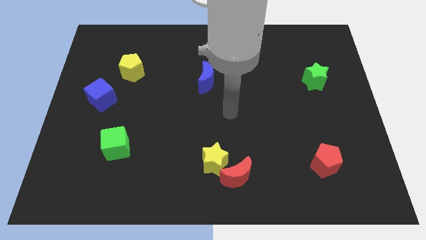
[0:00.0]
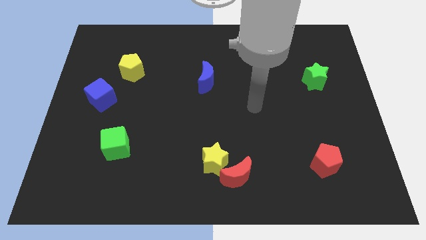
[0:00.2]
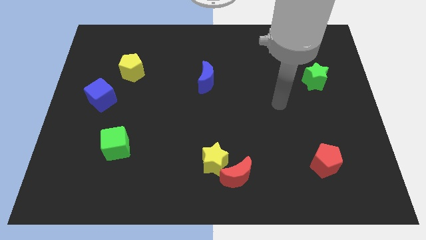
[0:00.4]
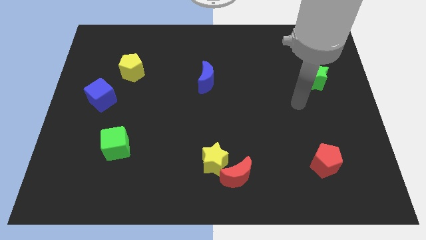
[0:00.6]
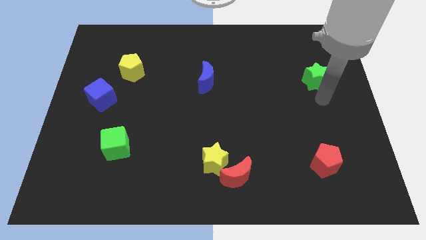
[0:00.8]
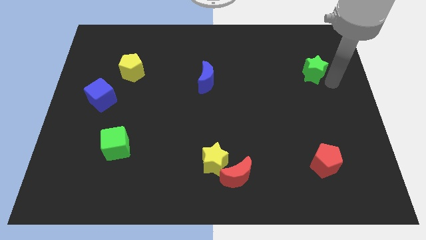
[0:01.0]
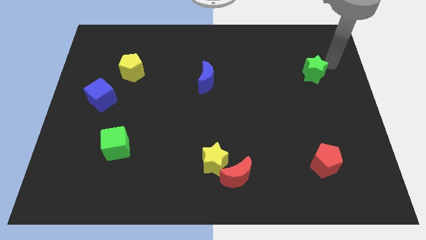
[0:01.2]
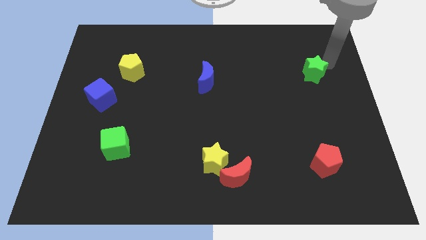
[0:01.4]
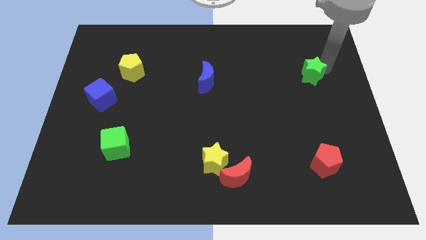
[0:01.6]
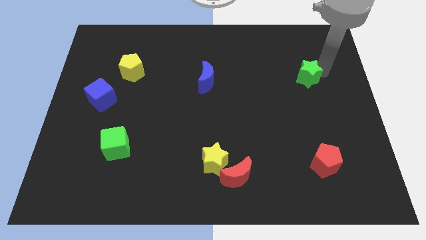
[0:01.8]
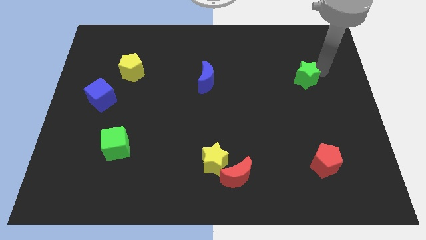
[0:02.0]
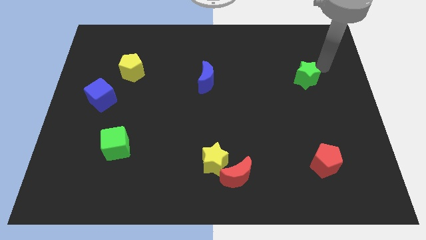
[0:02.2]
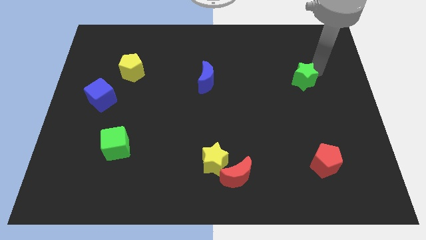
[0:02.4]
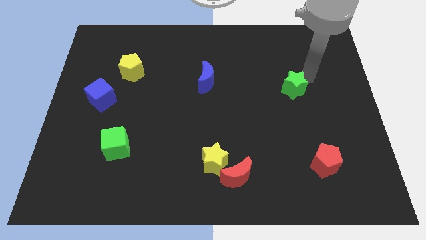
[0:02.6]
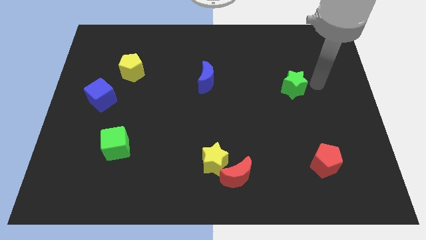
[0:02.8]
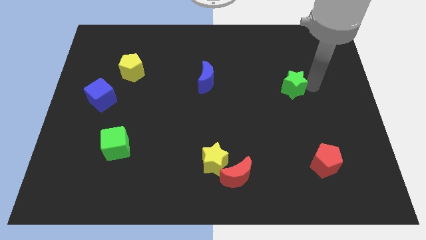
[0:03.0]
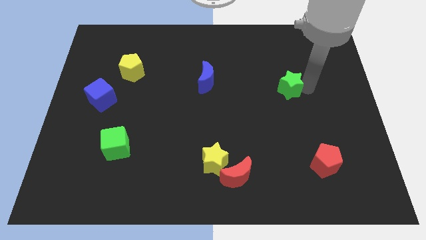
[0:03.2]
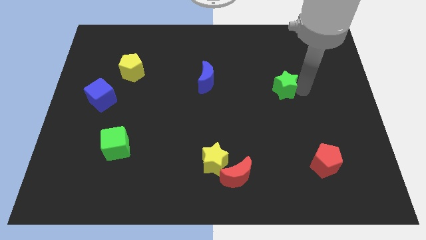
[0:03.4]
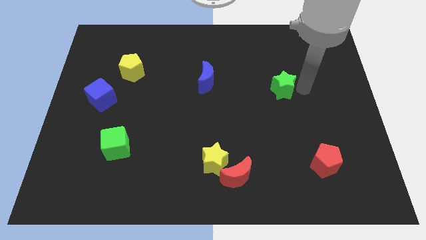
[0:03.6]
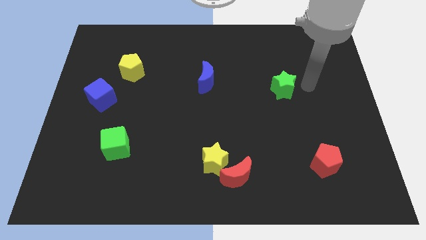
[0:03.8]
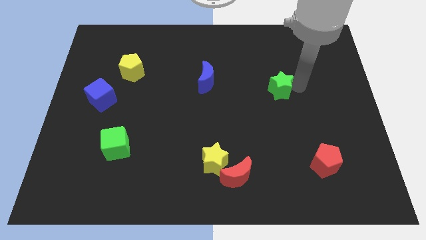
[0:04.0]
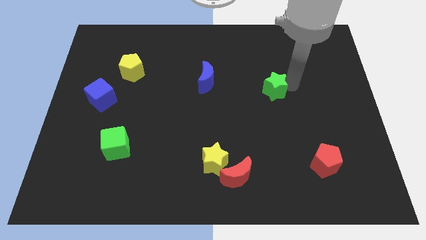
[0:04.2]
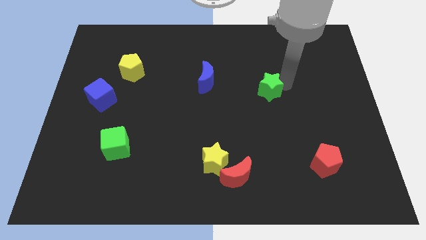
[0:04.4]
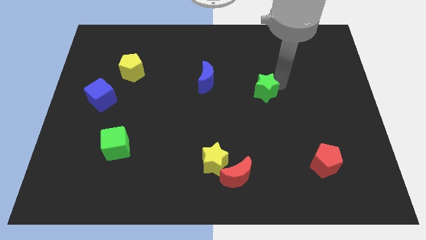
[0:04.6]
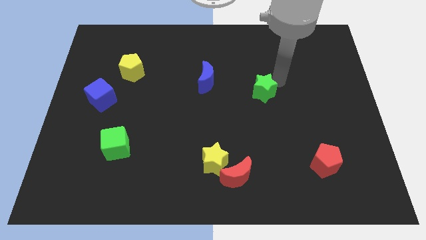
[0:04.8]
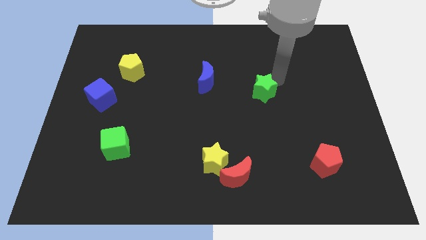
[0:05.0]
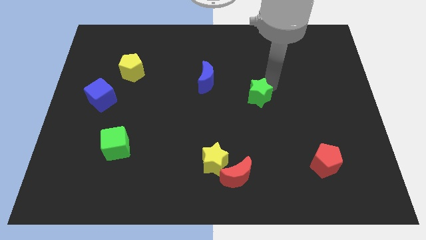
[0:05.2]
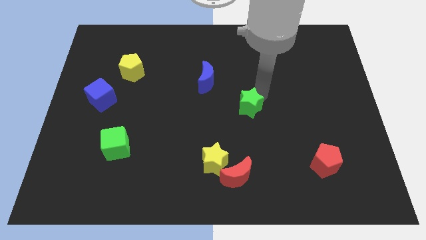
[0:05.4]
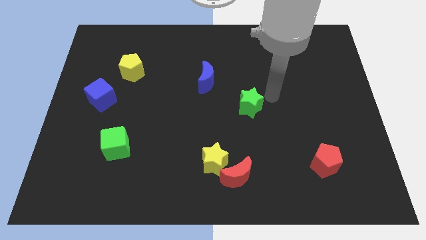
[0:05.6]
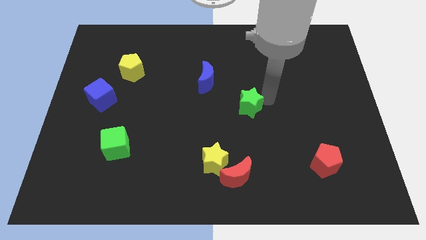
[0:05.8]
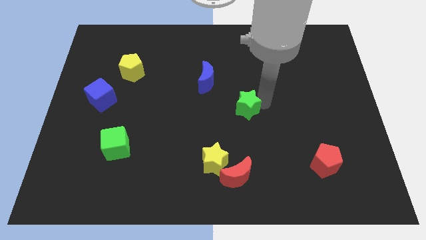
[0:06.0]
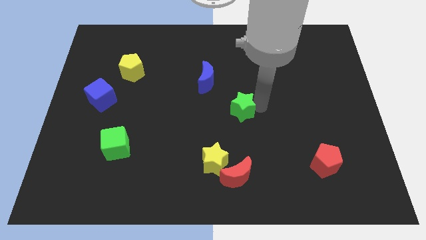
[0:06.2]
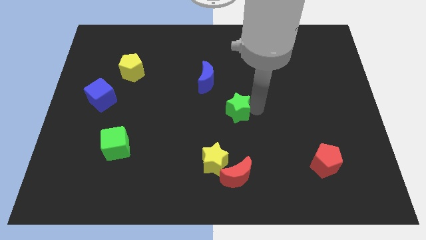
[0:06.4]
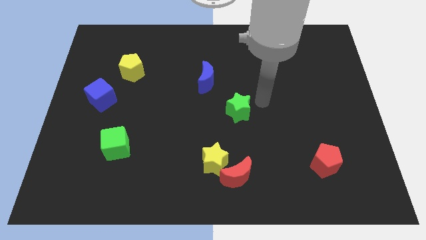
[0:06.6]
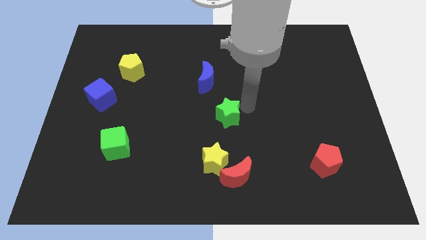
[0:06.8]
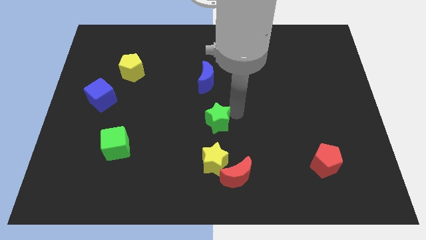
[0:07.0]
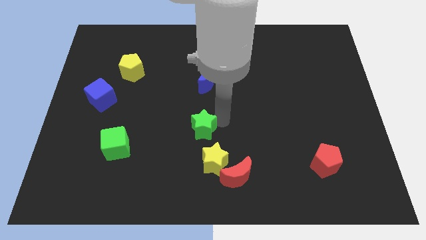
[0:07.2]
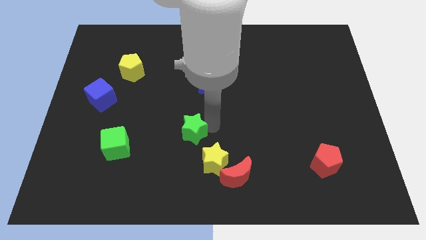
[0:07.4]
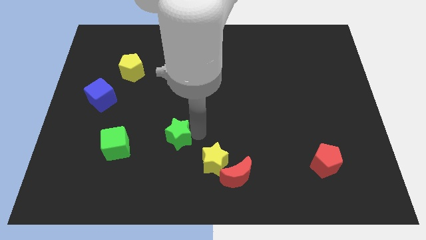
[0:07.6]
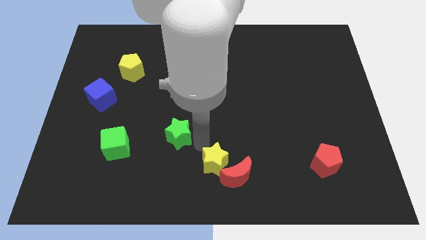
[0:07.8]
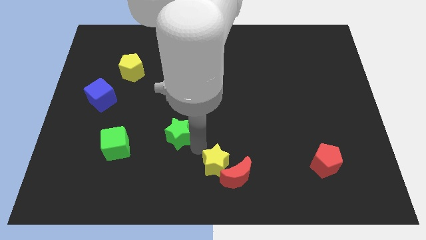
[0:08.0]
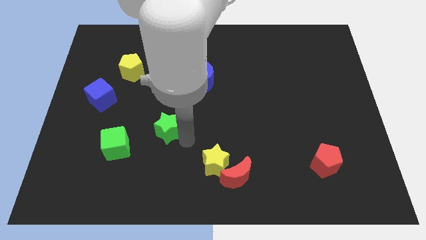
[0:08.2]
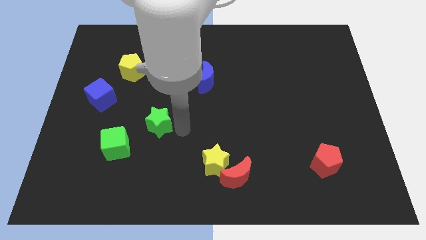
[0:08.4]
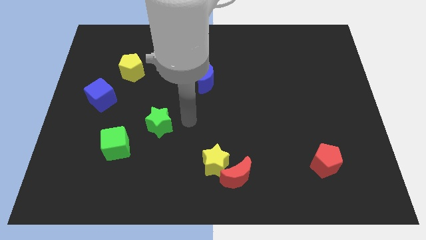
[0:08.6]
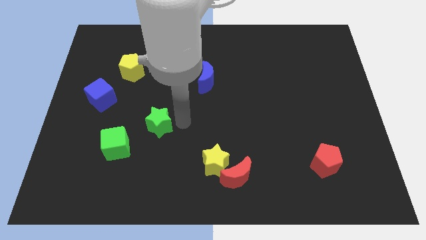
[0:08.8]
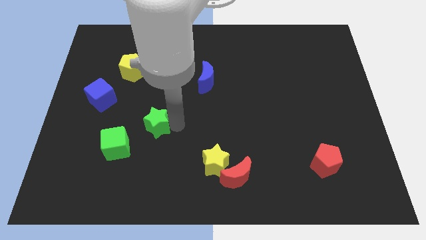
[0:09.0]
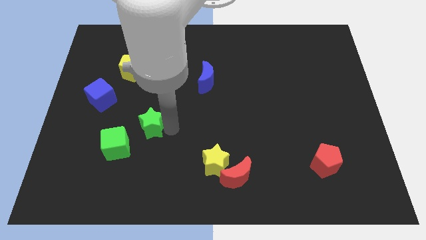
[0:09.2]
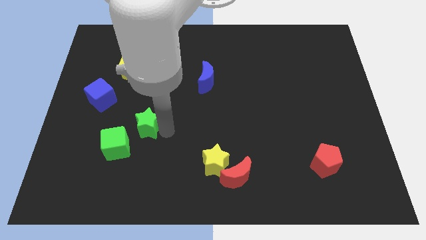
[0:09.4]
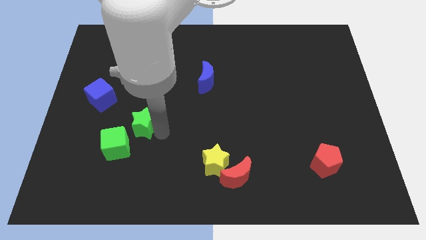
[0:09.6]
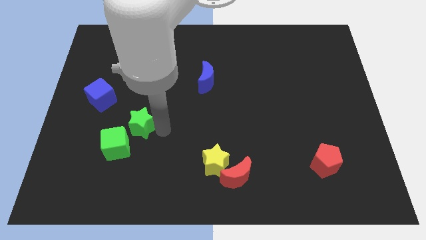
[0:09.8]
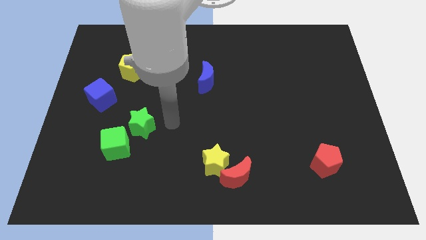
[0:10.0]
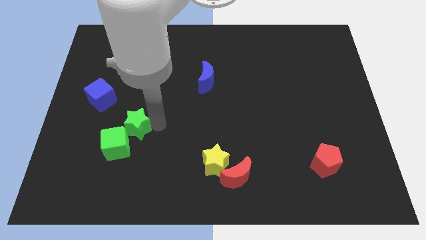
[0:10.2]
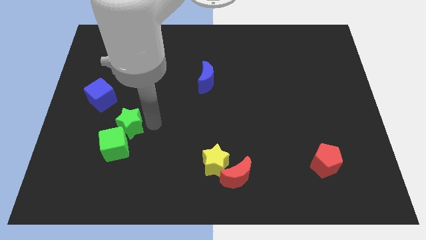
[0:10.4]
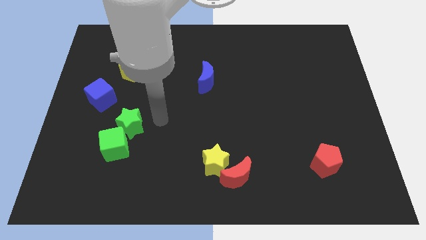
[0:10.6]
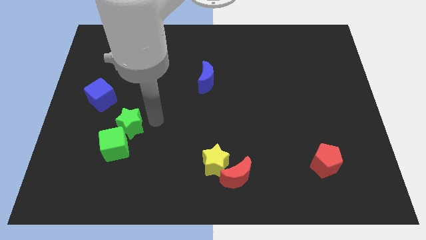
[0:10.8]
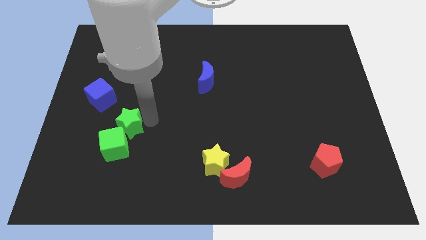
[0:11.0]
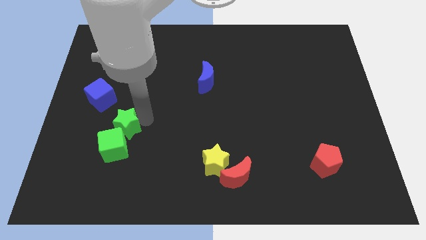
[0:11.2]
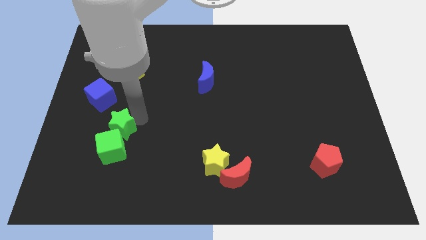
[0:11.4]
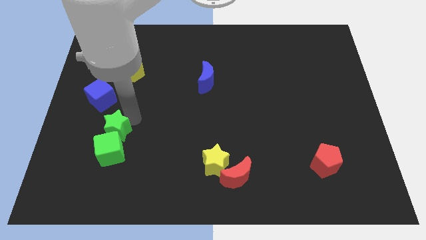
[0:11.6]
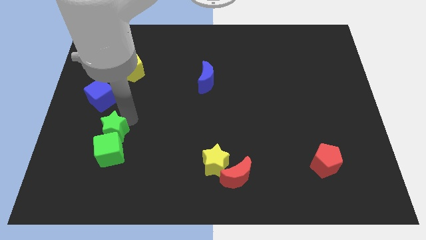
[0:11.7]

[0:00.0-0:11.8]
put the green star to the bottom side of the blue cube

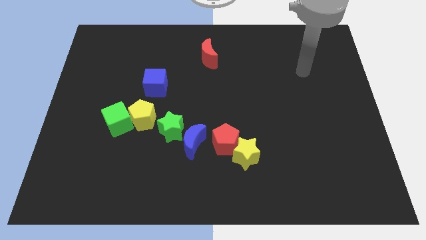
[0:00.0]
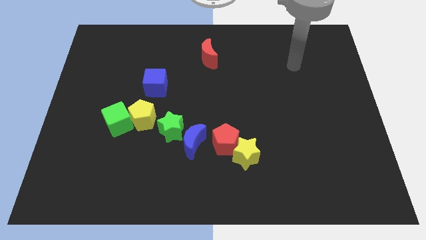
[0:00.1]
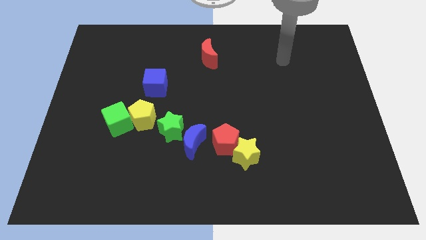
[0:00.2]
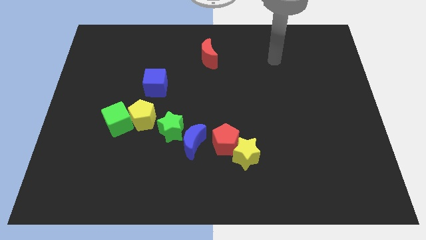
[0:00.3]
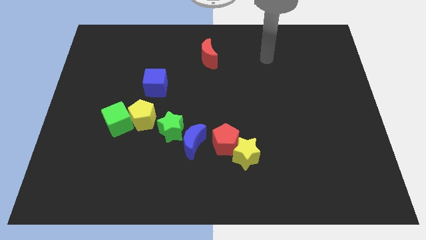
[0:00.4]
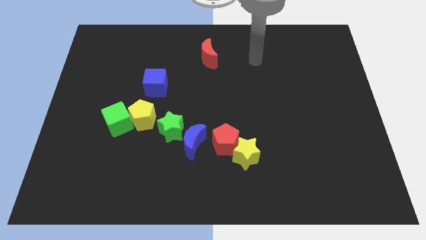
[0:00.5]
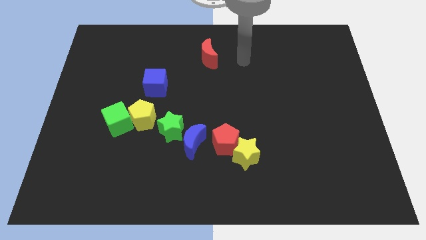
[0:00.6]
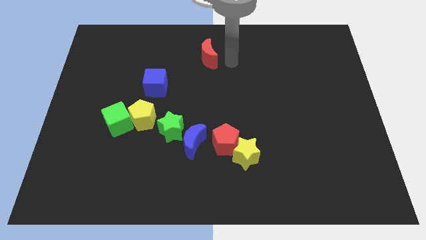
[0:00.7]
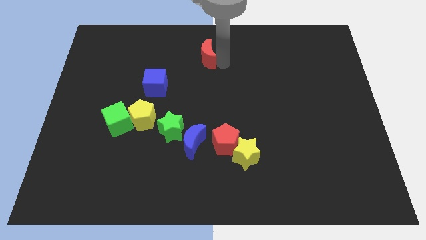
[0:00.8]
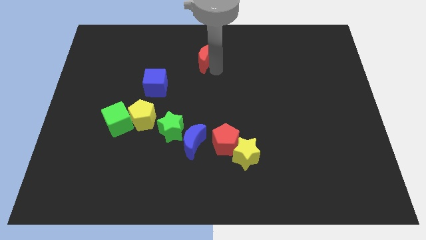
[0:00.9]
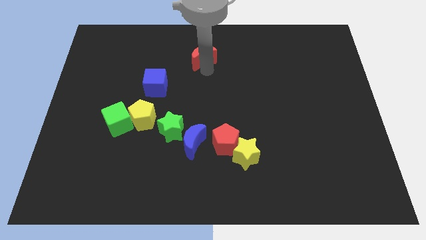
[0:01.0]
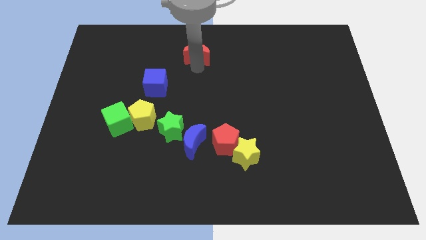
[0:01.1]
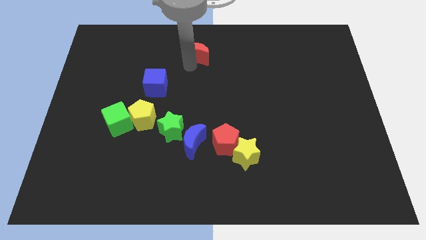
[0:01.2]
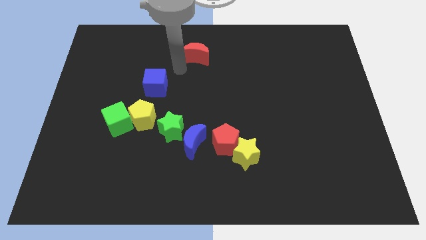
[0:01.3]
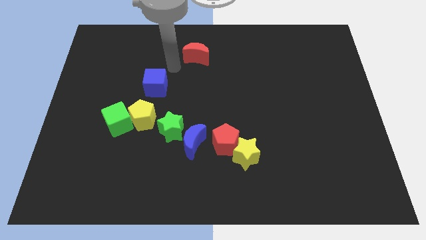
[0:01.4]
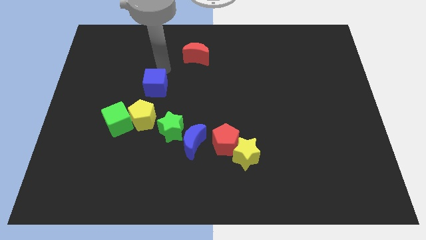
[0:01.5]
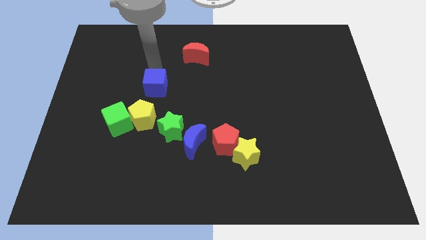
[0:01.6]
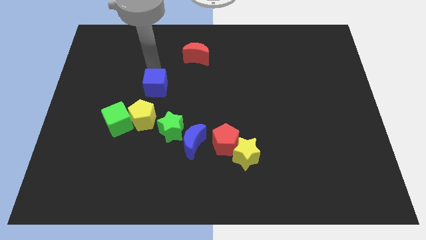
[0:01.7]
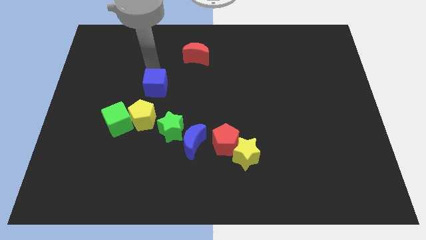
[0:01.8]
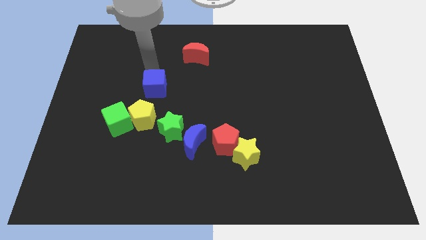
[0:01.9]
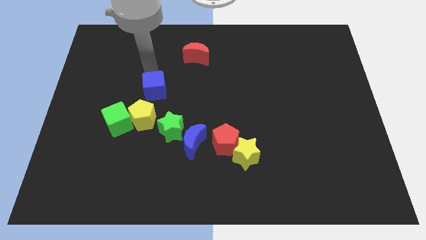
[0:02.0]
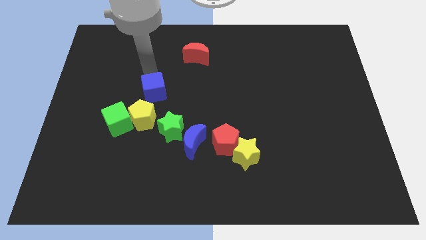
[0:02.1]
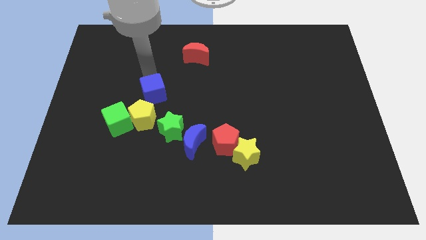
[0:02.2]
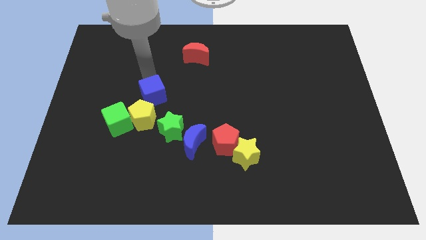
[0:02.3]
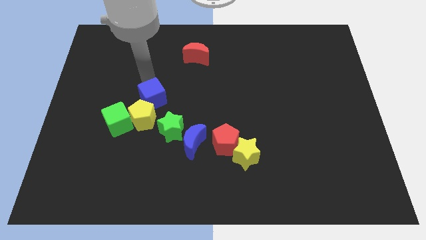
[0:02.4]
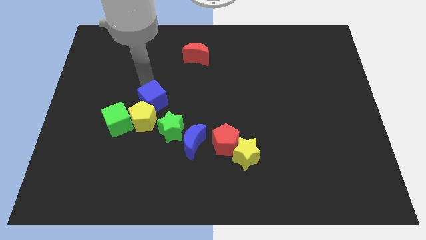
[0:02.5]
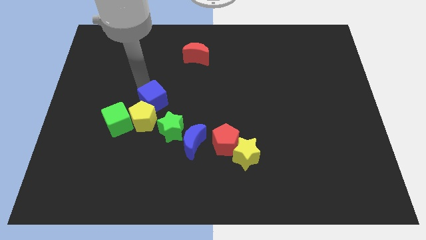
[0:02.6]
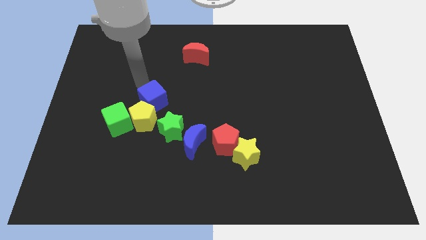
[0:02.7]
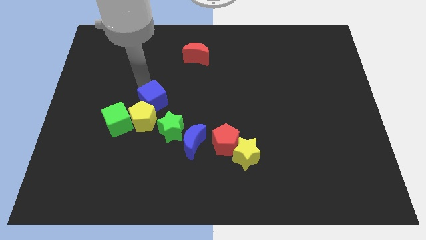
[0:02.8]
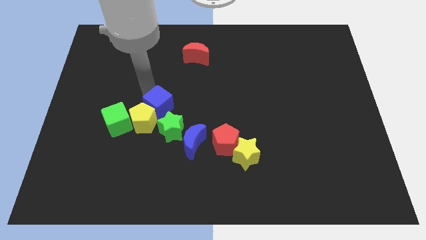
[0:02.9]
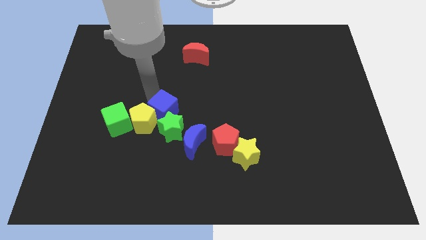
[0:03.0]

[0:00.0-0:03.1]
slide the blue cube to the top left side of the blue moon
